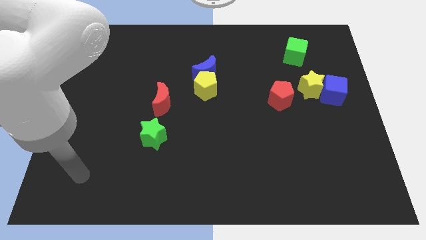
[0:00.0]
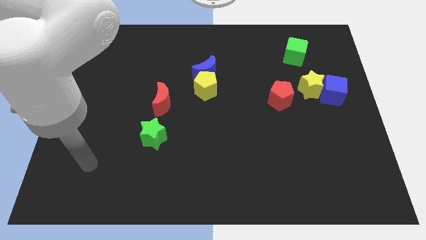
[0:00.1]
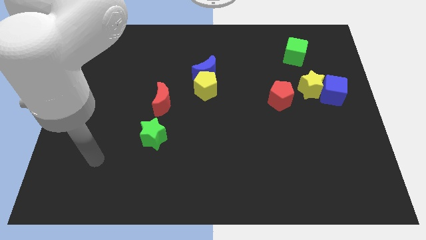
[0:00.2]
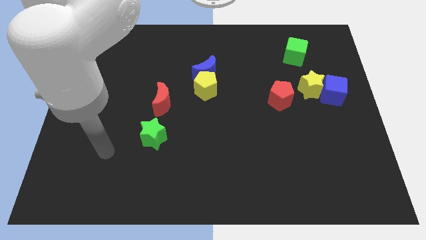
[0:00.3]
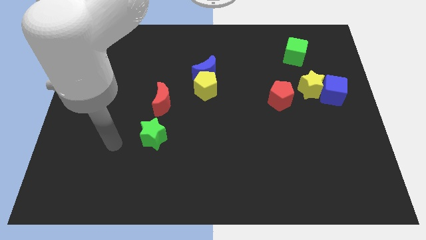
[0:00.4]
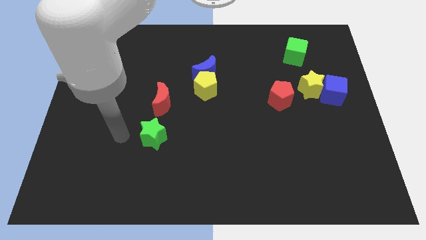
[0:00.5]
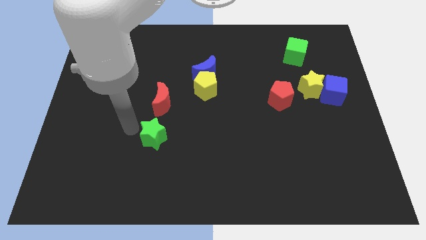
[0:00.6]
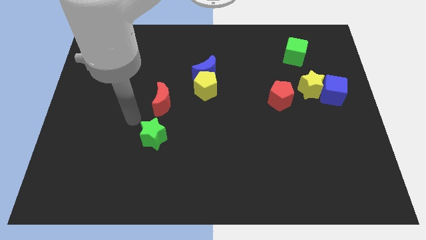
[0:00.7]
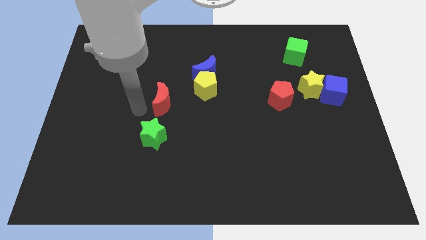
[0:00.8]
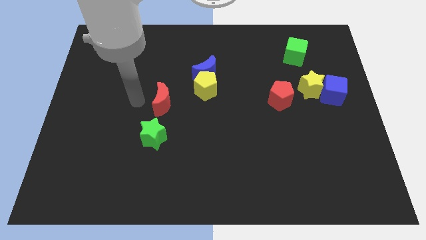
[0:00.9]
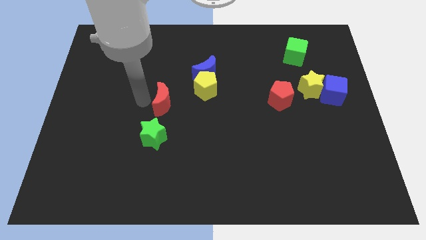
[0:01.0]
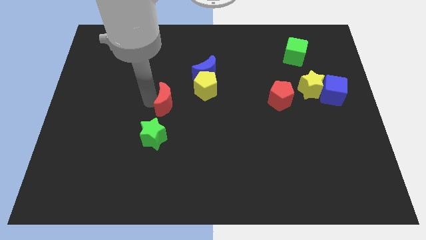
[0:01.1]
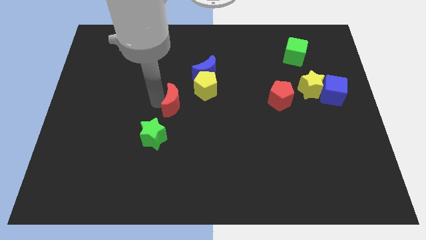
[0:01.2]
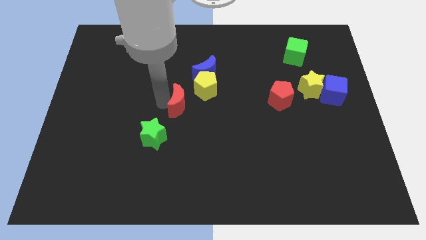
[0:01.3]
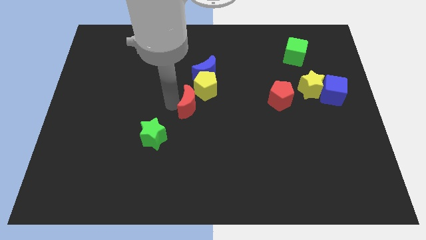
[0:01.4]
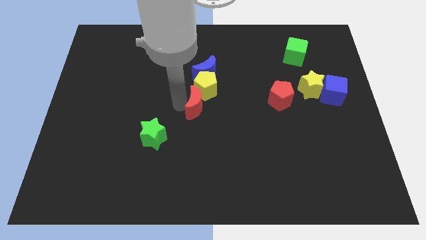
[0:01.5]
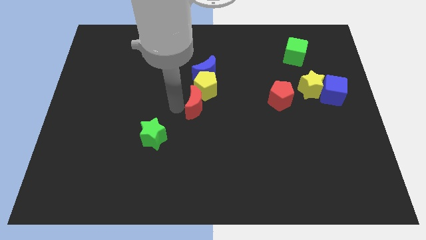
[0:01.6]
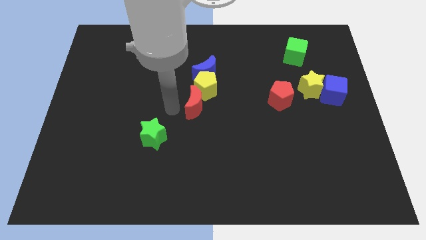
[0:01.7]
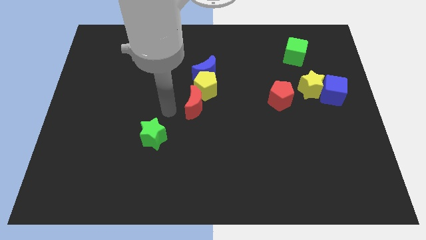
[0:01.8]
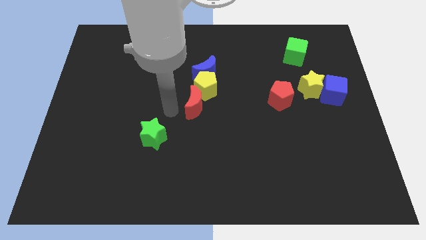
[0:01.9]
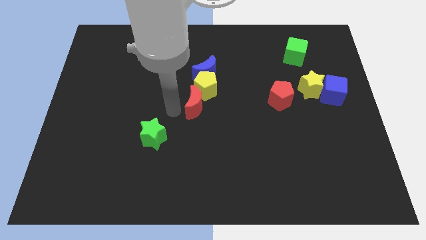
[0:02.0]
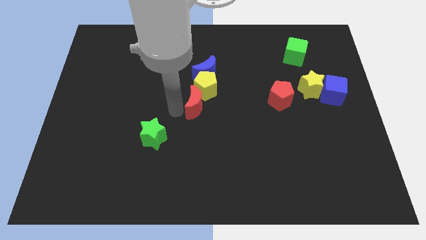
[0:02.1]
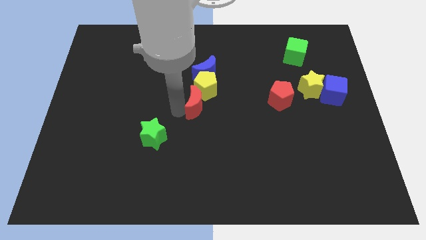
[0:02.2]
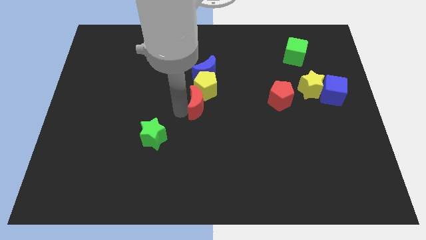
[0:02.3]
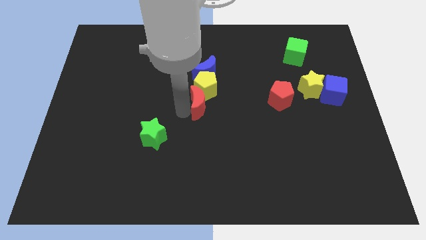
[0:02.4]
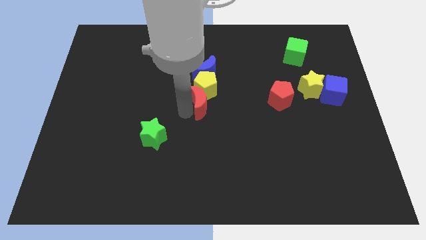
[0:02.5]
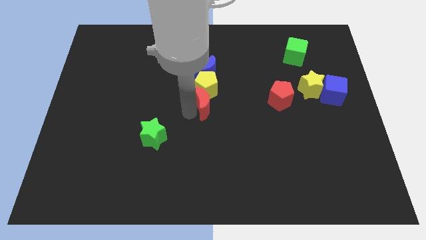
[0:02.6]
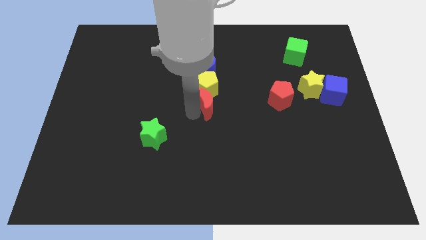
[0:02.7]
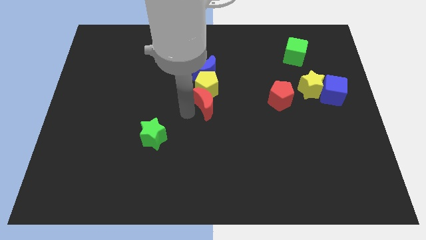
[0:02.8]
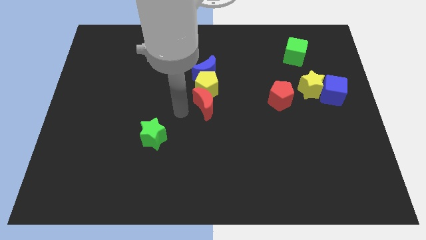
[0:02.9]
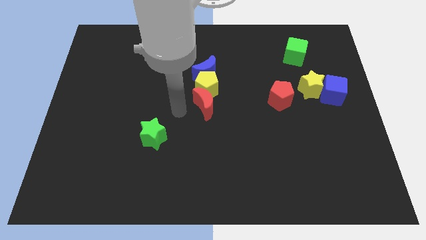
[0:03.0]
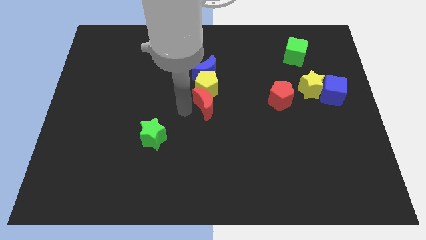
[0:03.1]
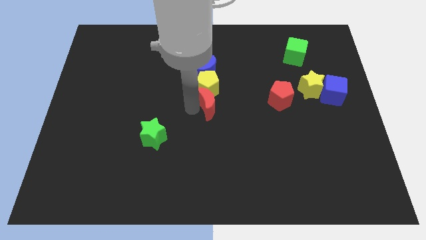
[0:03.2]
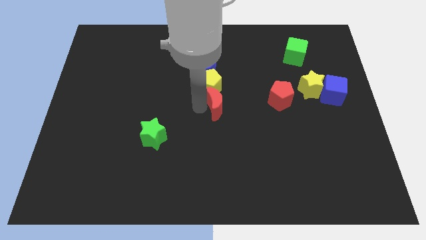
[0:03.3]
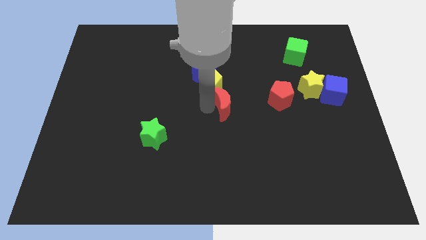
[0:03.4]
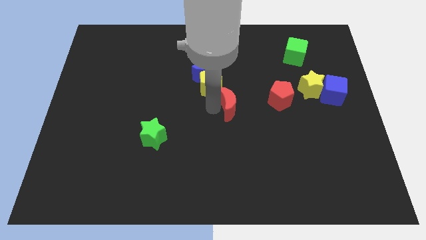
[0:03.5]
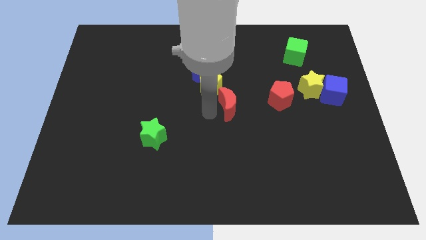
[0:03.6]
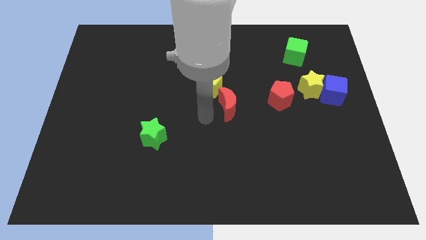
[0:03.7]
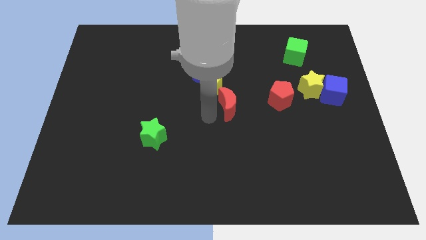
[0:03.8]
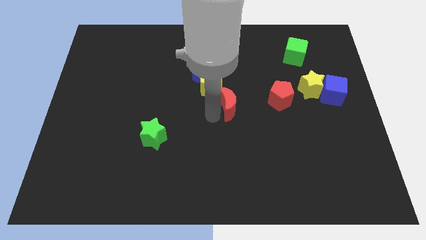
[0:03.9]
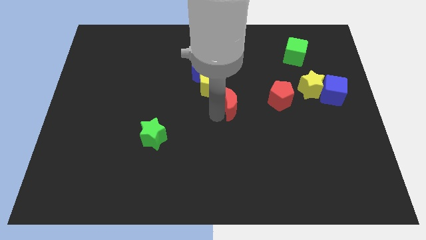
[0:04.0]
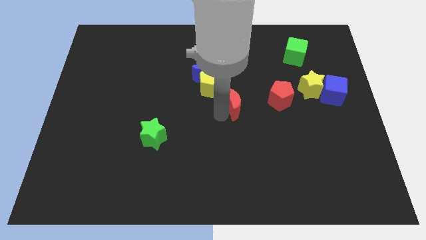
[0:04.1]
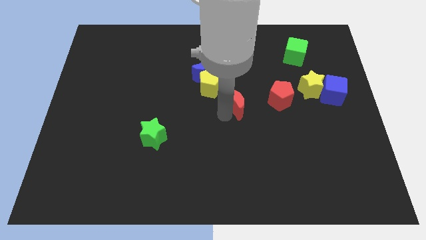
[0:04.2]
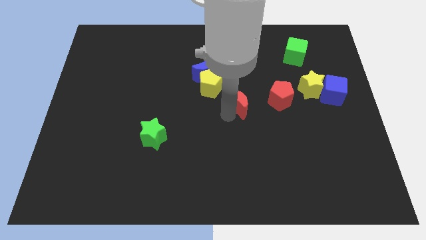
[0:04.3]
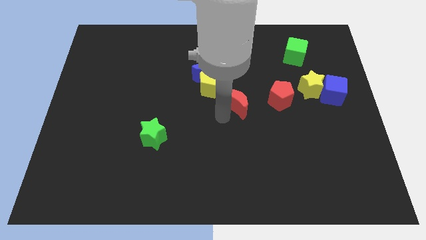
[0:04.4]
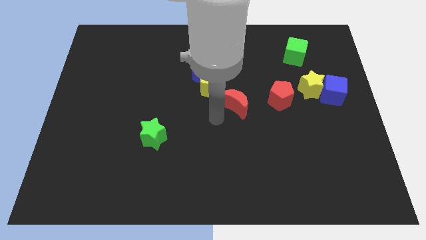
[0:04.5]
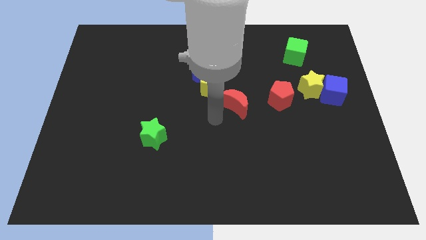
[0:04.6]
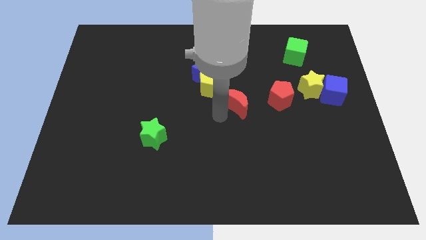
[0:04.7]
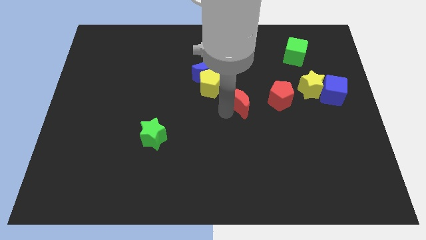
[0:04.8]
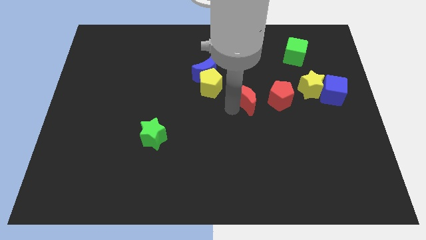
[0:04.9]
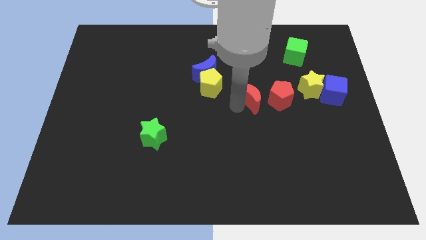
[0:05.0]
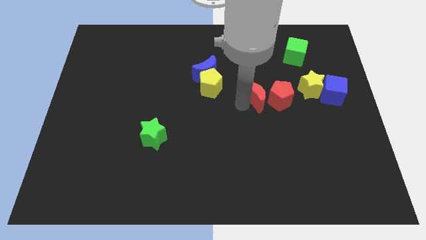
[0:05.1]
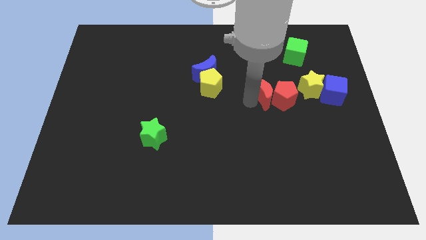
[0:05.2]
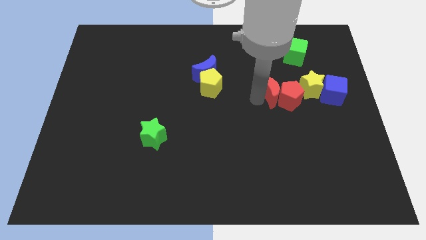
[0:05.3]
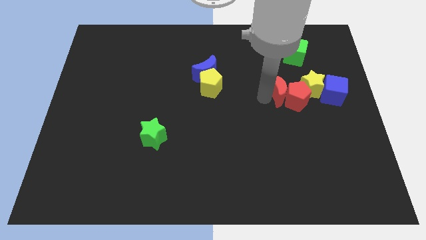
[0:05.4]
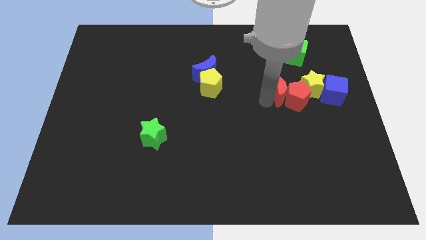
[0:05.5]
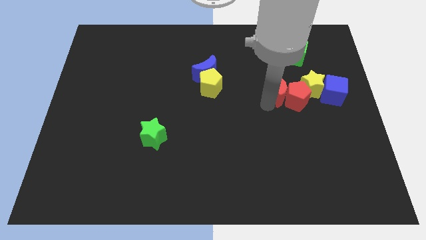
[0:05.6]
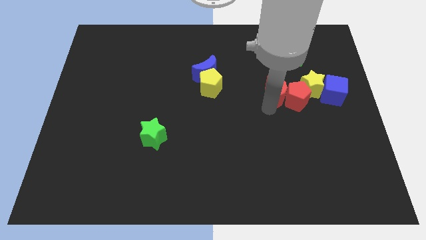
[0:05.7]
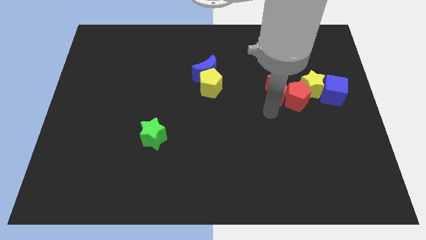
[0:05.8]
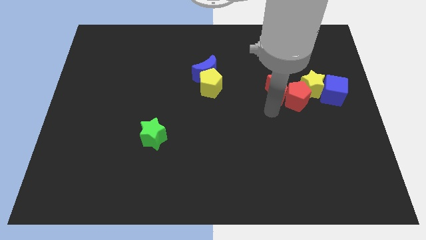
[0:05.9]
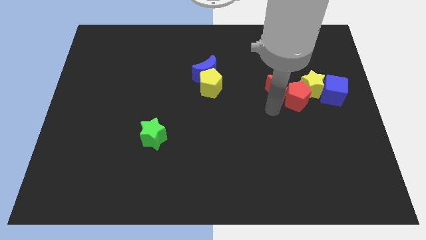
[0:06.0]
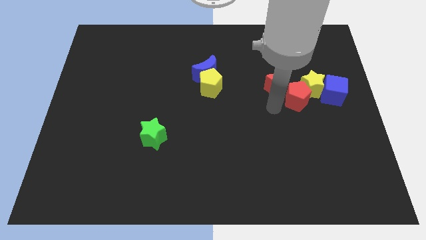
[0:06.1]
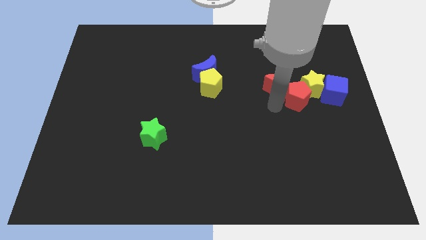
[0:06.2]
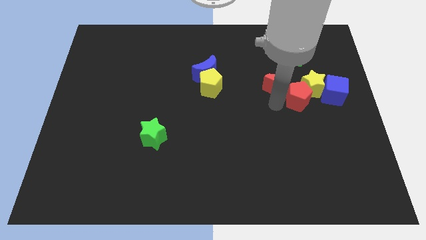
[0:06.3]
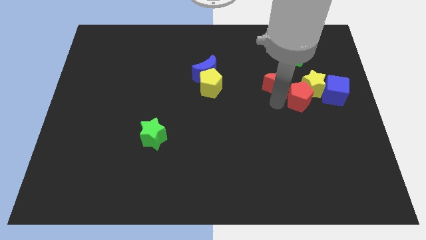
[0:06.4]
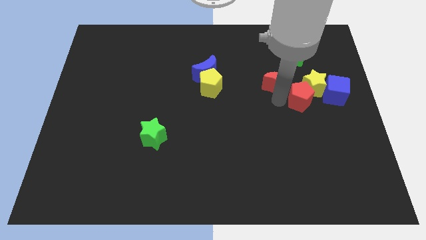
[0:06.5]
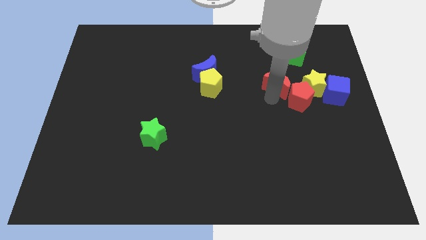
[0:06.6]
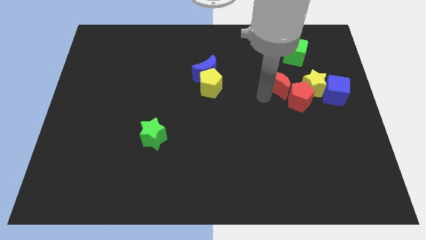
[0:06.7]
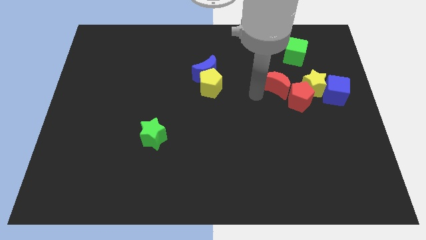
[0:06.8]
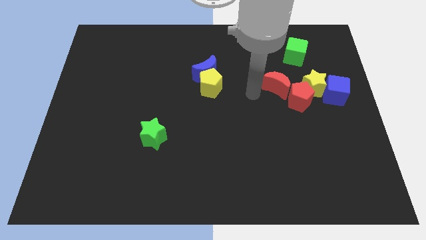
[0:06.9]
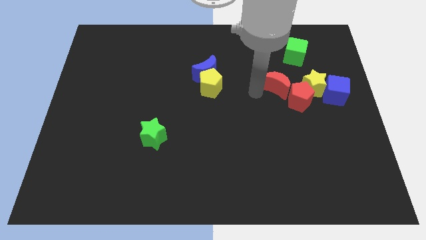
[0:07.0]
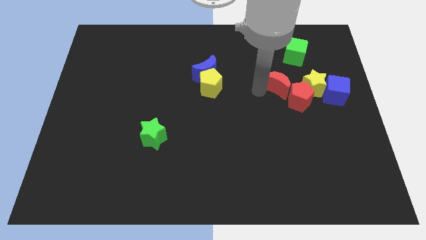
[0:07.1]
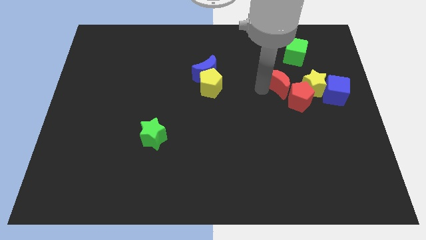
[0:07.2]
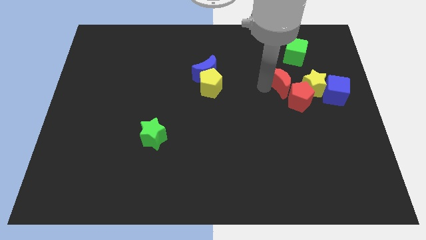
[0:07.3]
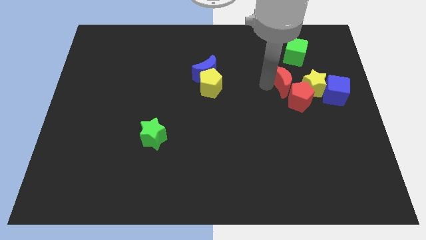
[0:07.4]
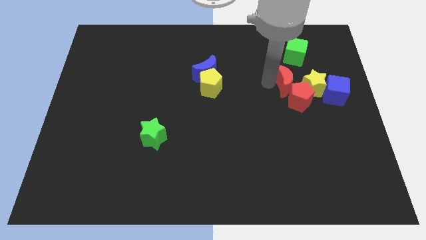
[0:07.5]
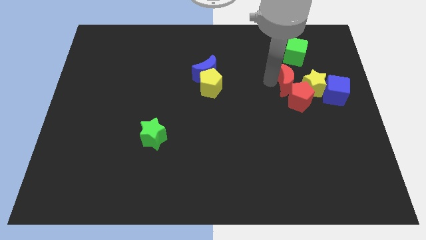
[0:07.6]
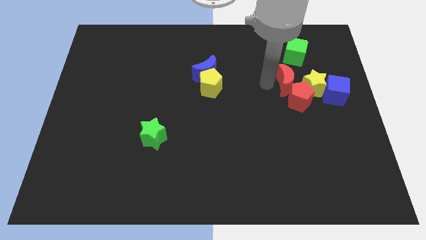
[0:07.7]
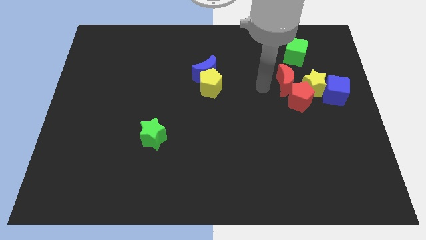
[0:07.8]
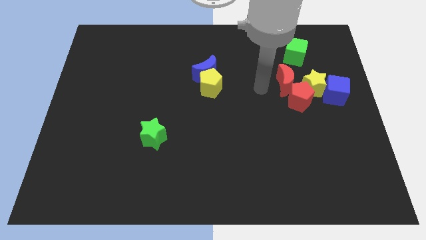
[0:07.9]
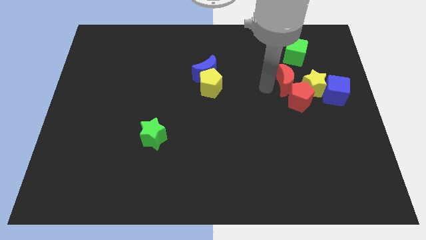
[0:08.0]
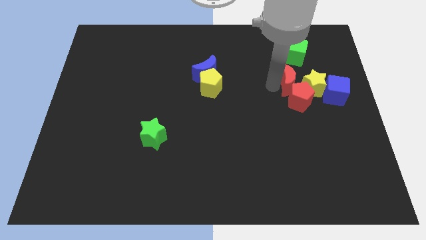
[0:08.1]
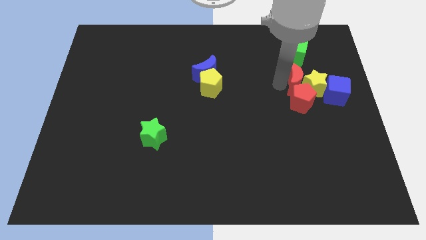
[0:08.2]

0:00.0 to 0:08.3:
put the red moon to the top left of the blue cube
